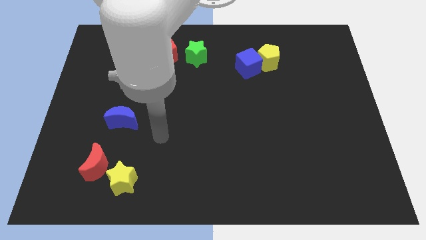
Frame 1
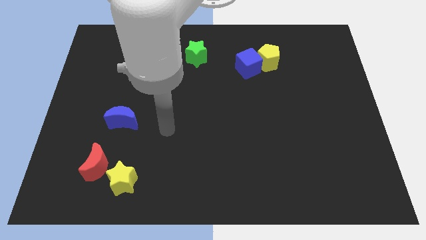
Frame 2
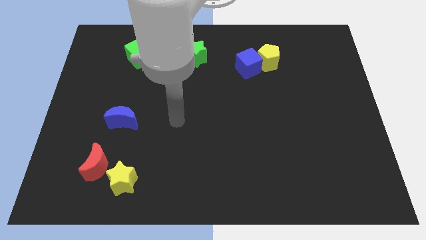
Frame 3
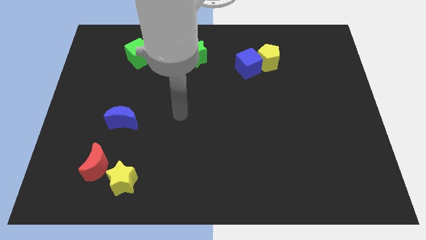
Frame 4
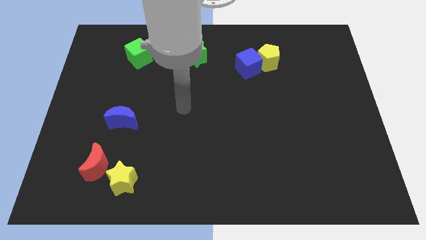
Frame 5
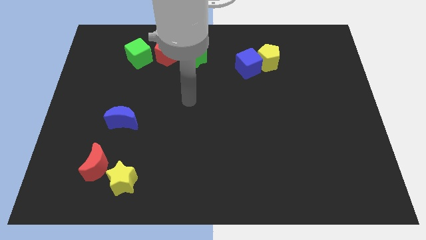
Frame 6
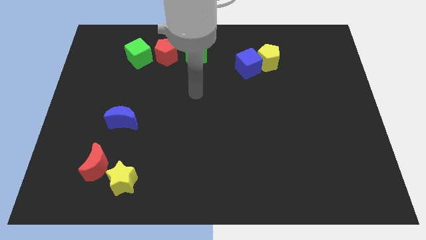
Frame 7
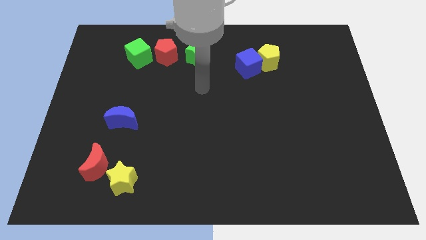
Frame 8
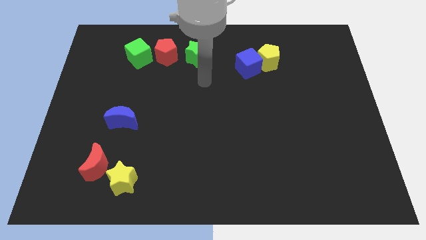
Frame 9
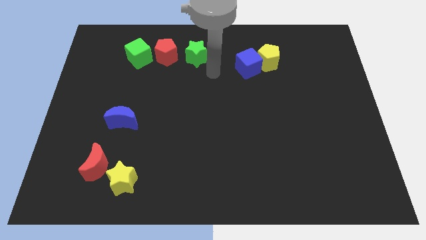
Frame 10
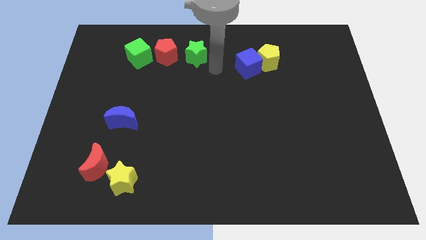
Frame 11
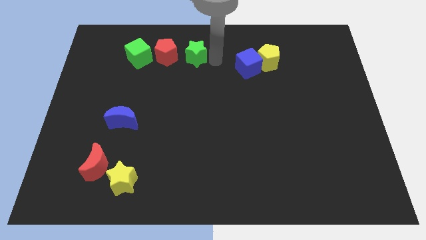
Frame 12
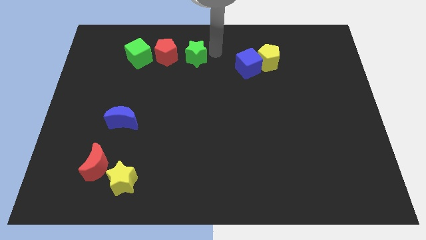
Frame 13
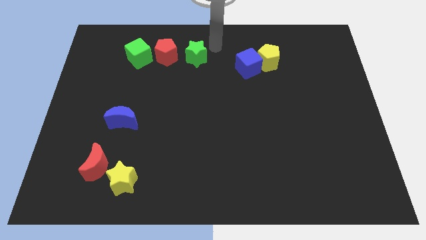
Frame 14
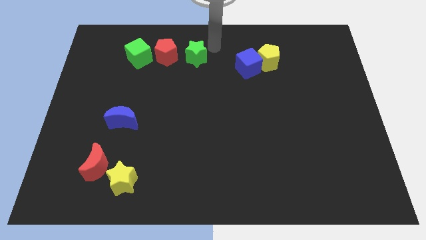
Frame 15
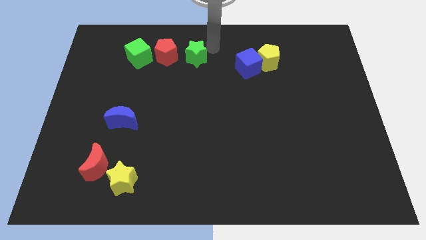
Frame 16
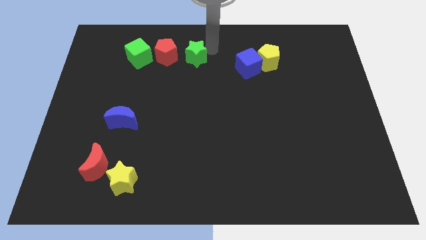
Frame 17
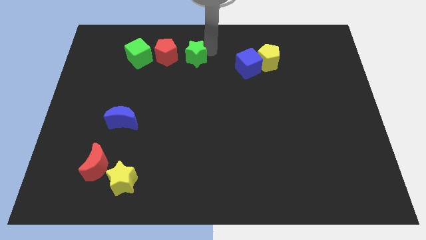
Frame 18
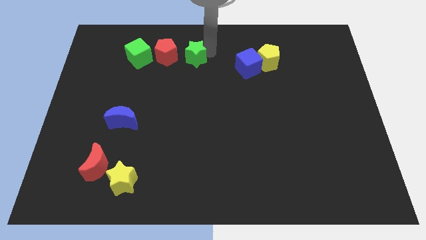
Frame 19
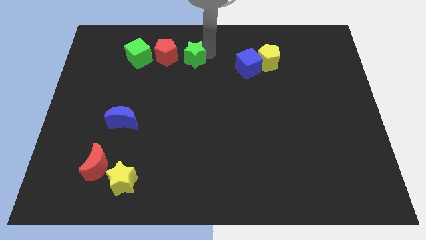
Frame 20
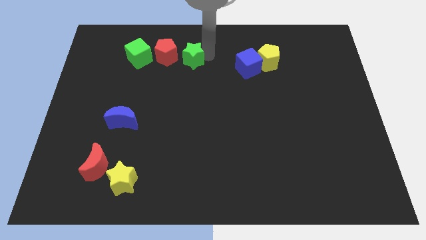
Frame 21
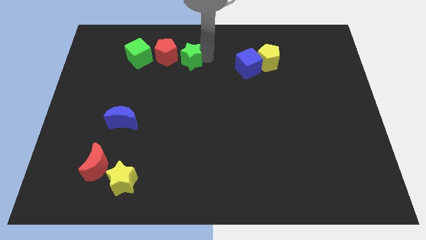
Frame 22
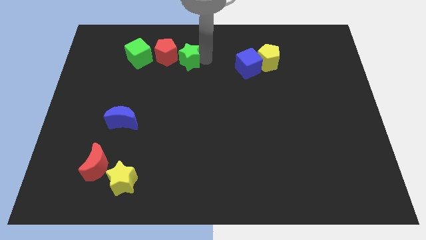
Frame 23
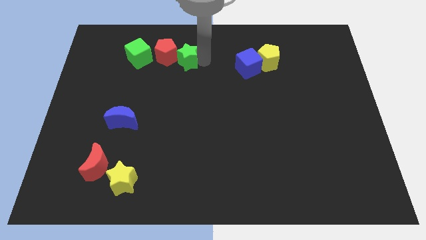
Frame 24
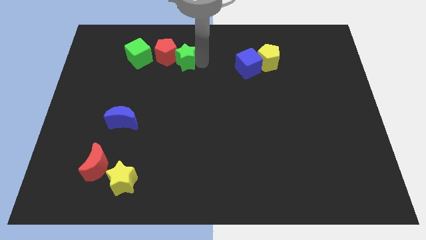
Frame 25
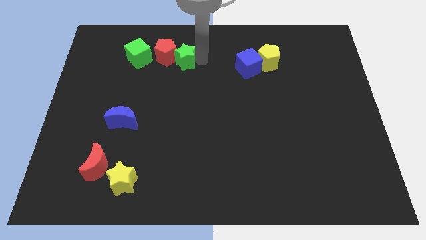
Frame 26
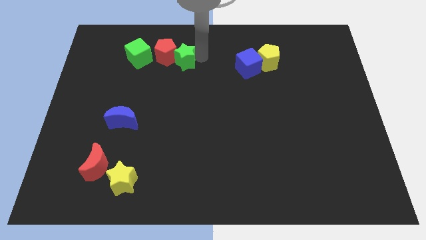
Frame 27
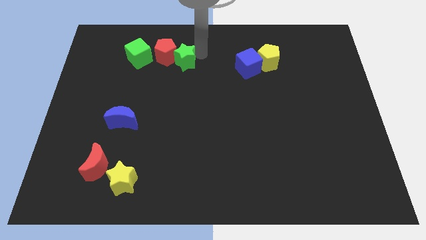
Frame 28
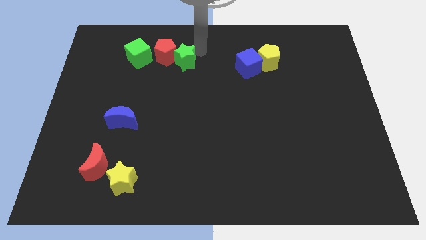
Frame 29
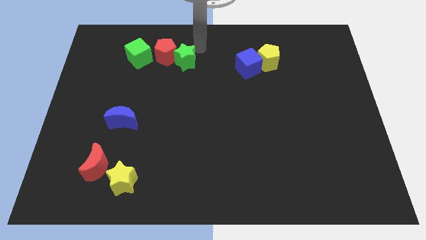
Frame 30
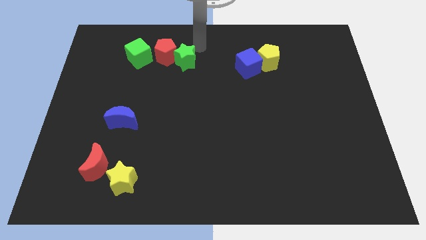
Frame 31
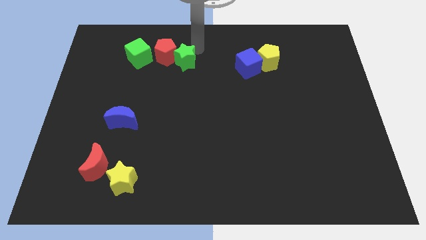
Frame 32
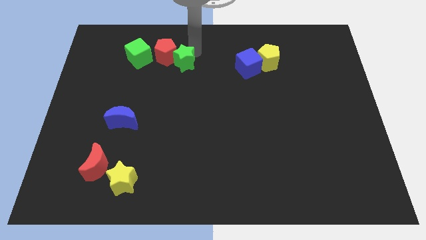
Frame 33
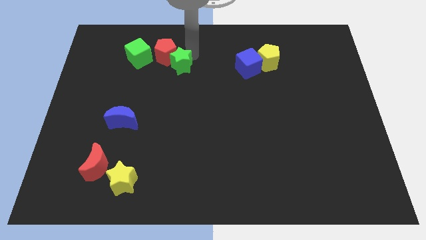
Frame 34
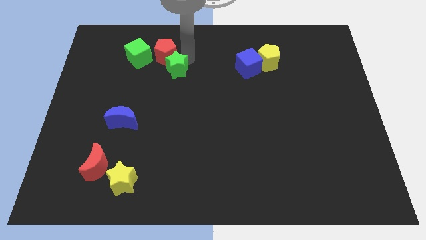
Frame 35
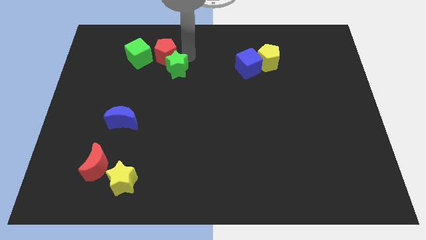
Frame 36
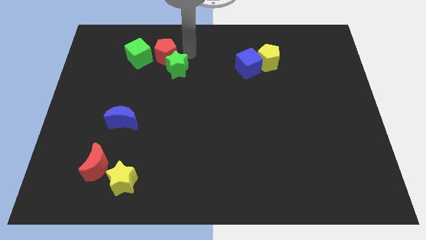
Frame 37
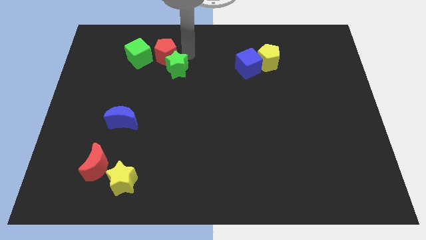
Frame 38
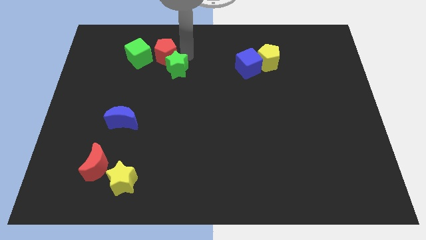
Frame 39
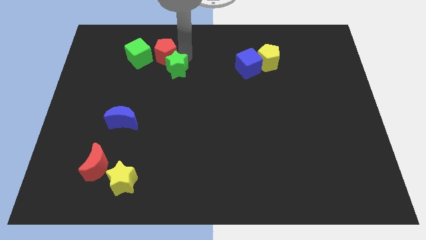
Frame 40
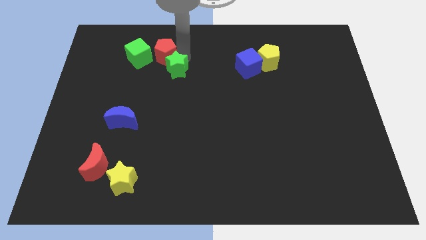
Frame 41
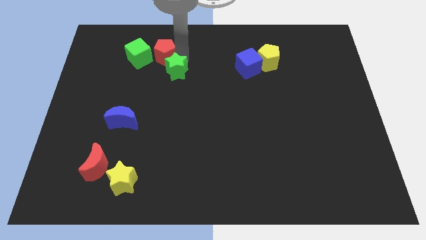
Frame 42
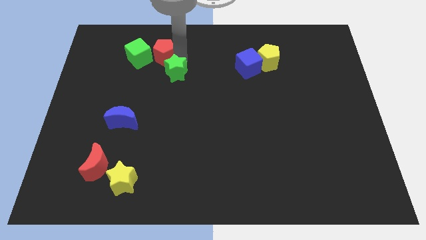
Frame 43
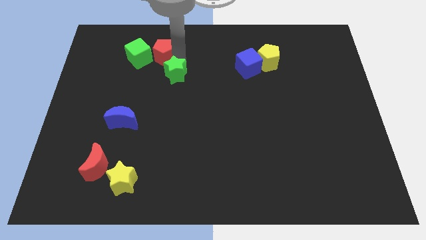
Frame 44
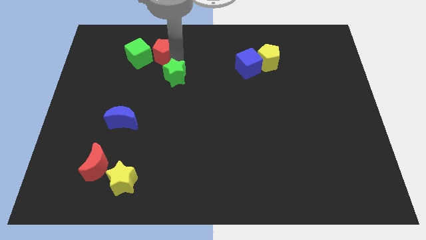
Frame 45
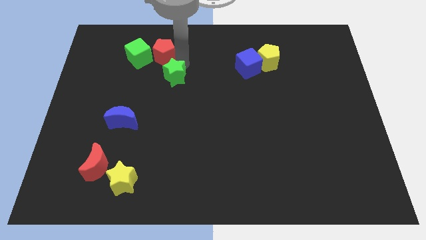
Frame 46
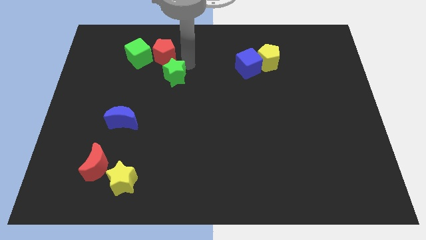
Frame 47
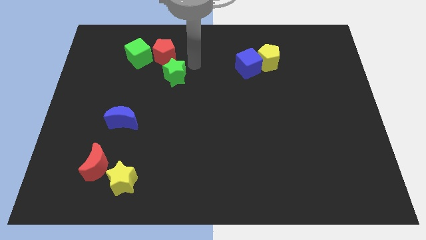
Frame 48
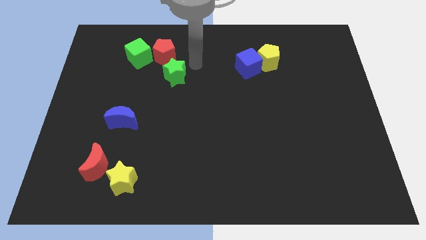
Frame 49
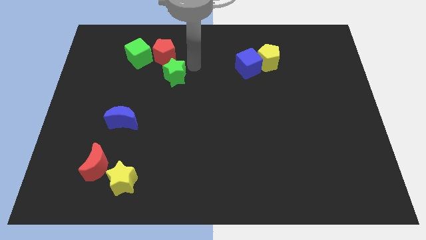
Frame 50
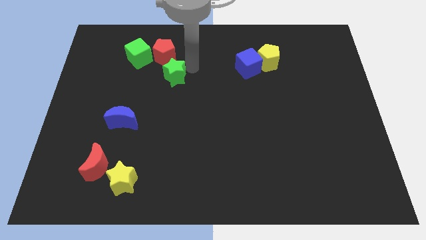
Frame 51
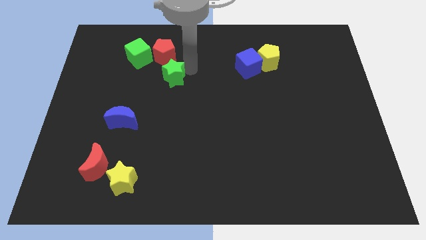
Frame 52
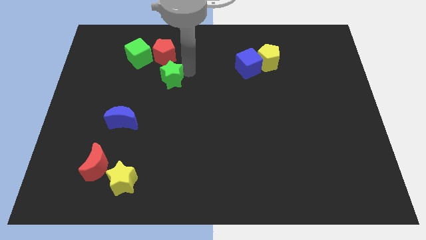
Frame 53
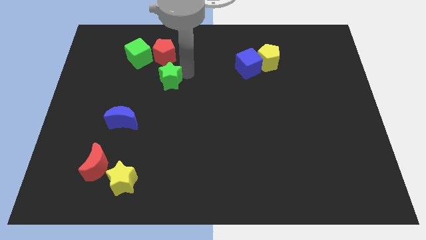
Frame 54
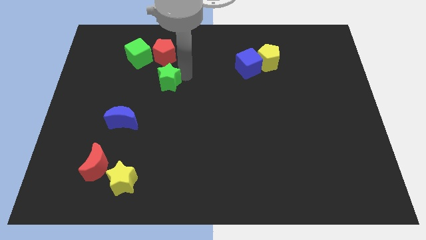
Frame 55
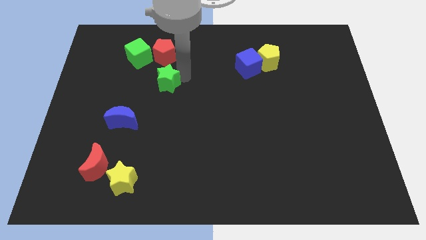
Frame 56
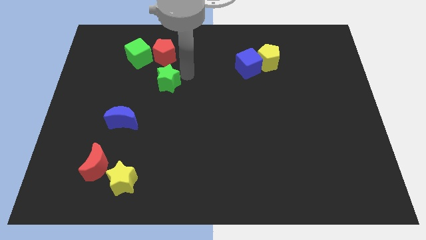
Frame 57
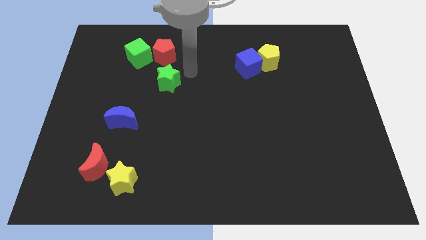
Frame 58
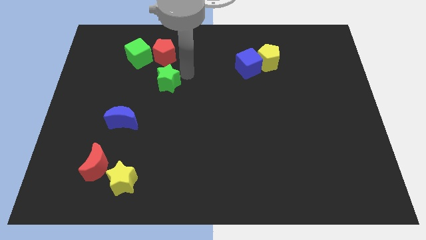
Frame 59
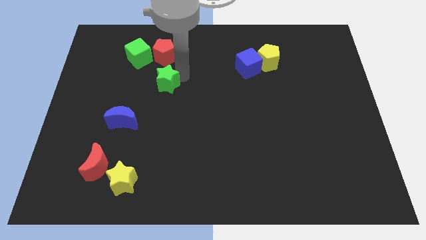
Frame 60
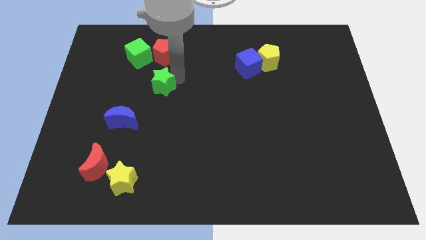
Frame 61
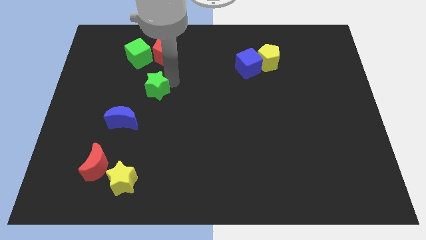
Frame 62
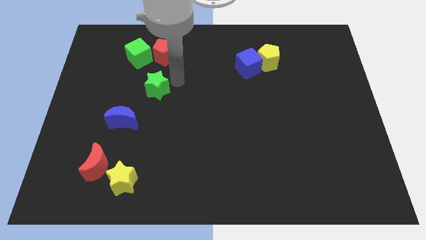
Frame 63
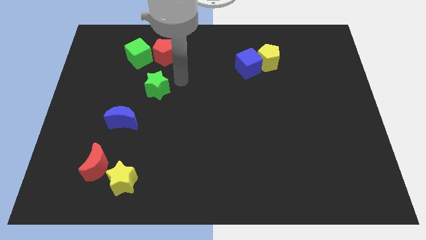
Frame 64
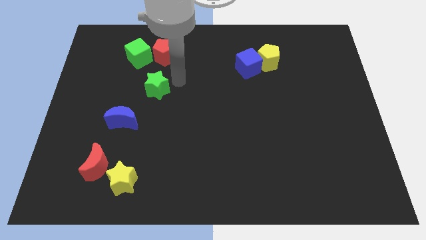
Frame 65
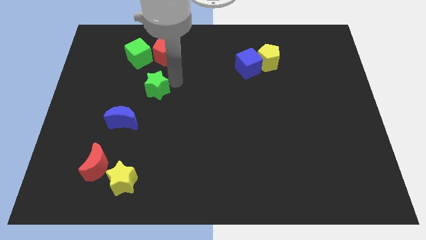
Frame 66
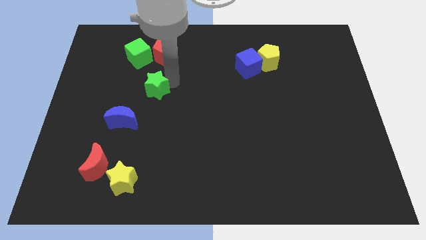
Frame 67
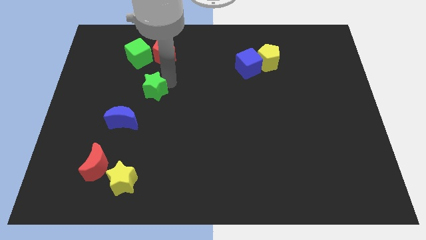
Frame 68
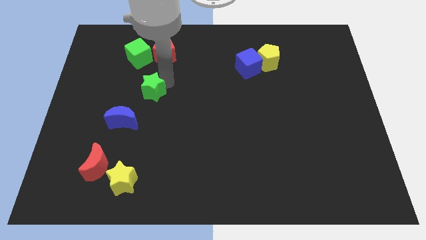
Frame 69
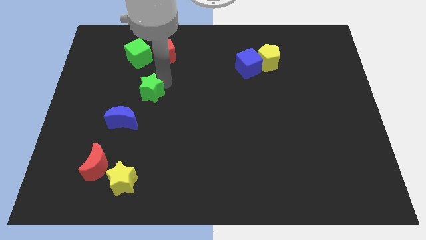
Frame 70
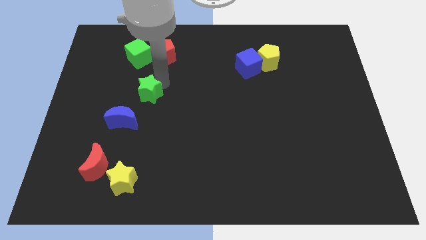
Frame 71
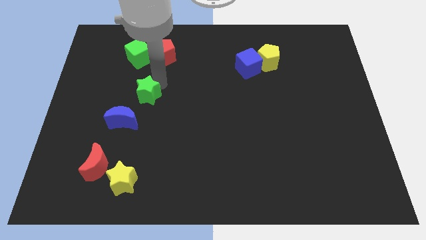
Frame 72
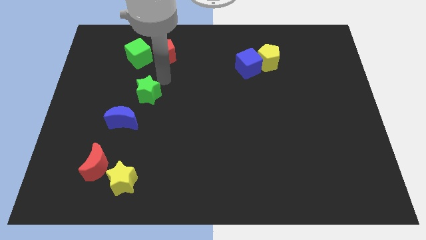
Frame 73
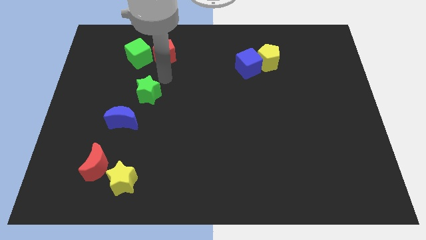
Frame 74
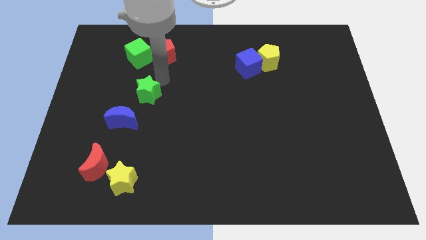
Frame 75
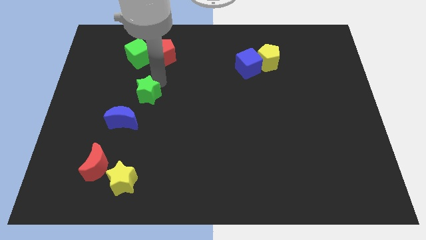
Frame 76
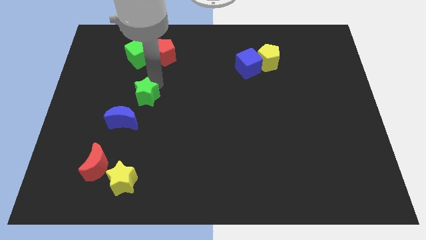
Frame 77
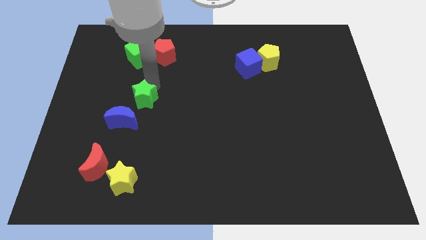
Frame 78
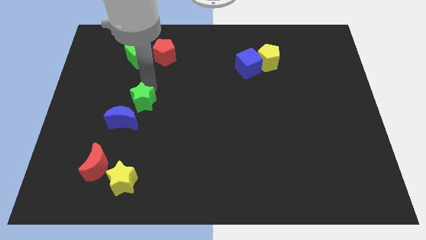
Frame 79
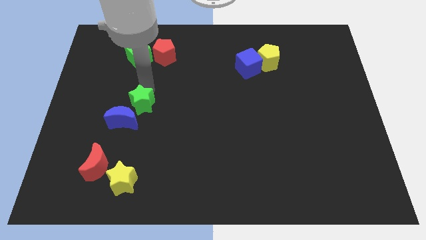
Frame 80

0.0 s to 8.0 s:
push the green star towards the blue moon
